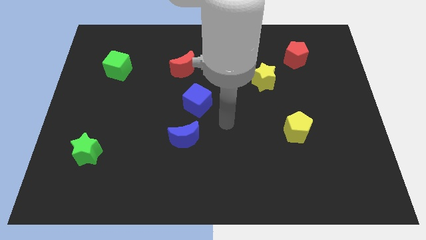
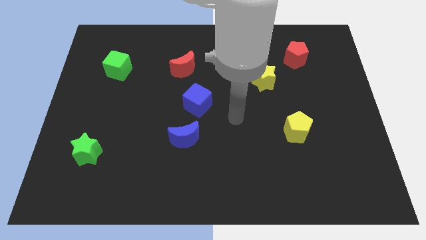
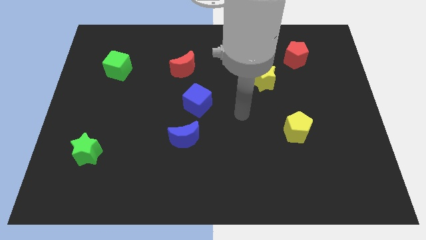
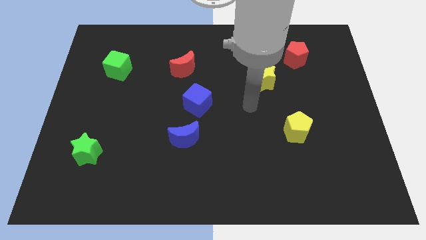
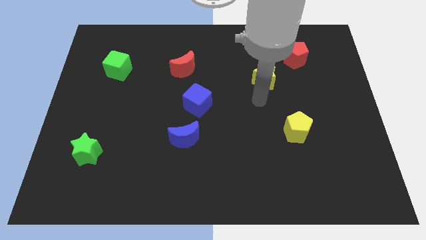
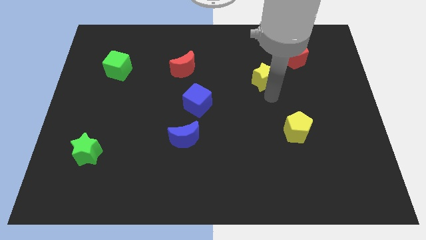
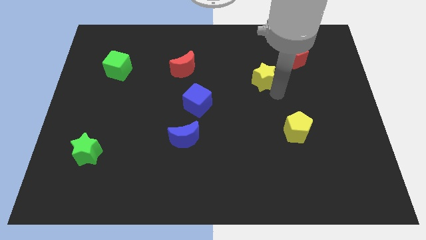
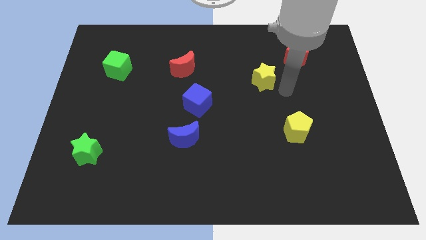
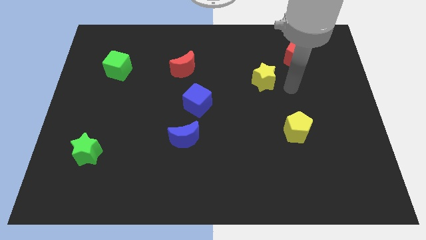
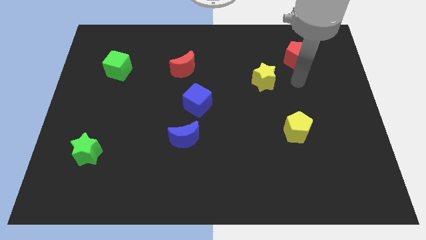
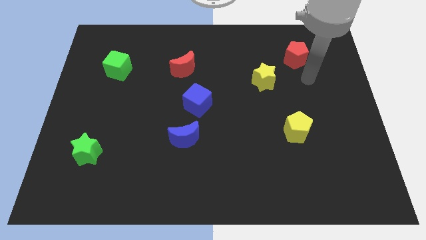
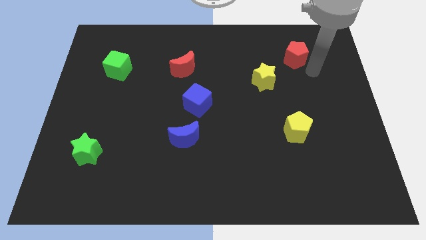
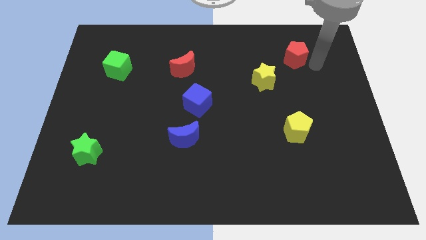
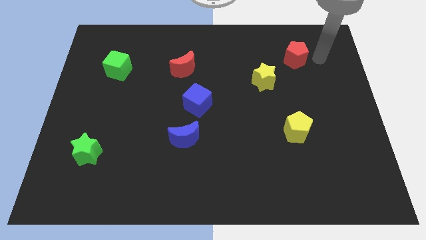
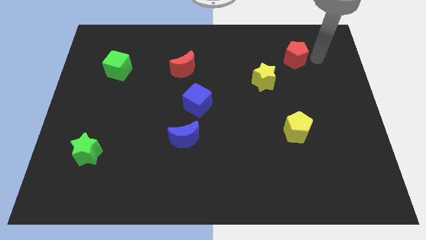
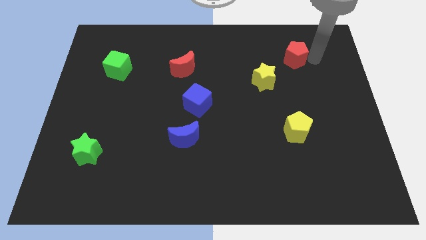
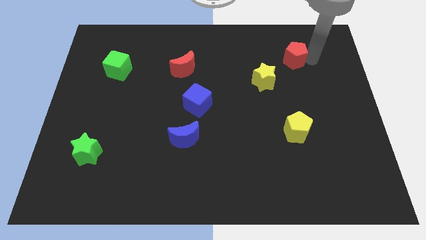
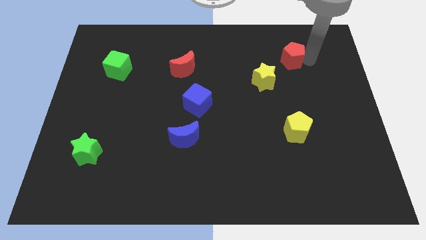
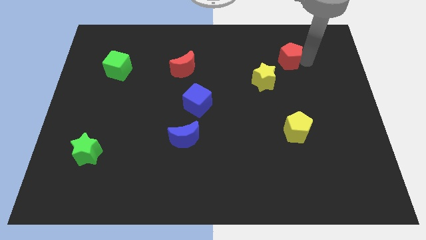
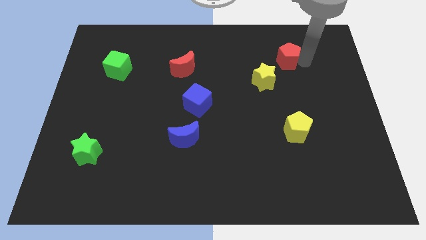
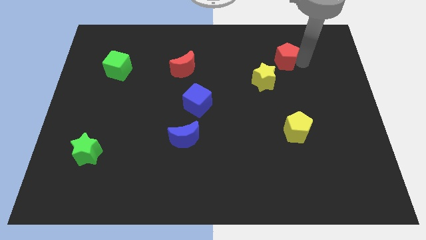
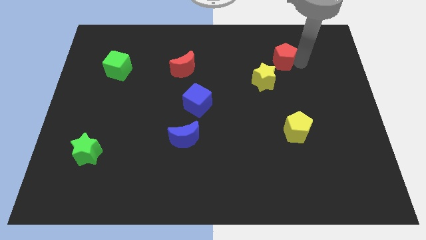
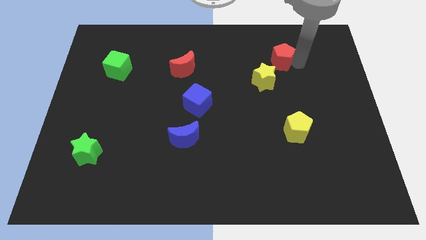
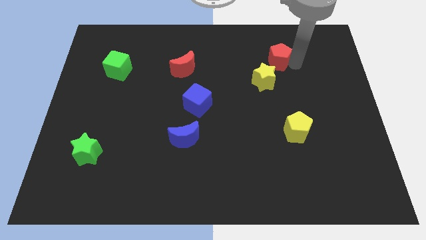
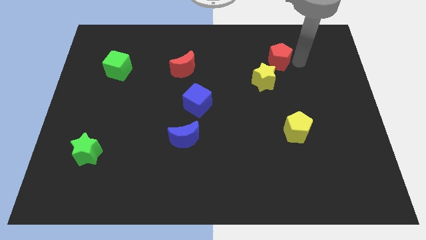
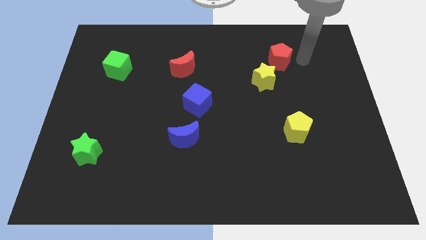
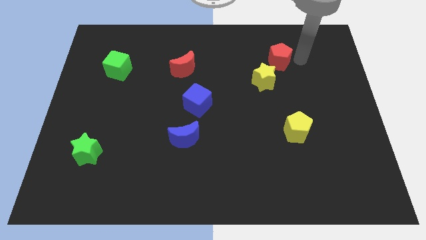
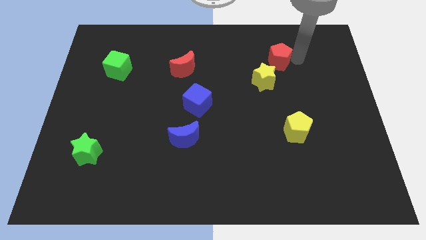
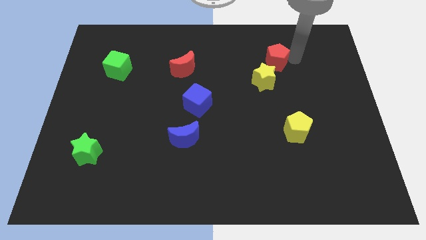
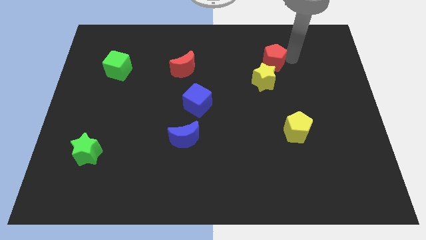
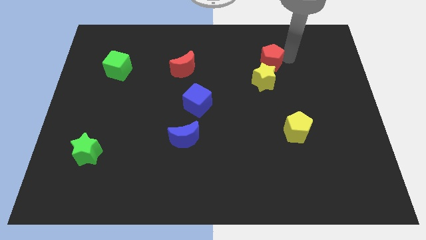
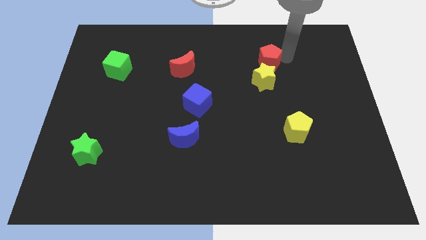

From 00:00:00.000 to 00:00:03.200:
push the red pentagon slightly left

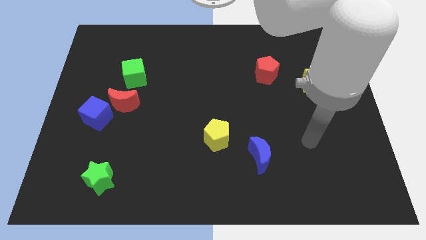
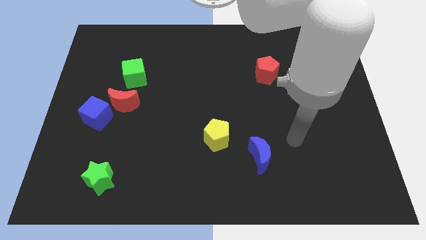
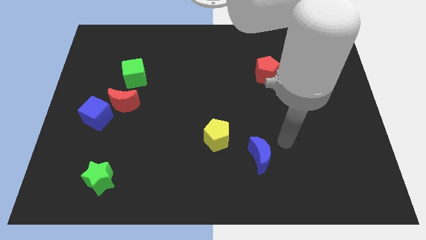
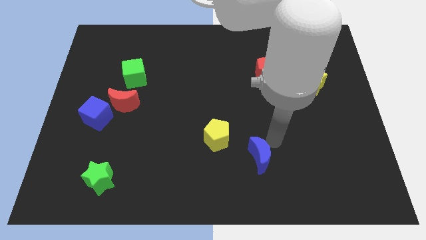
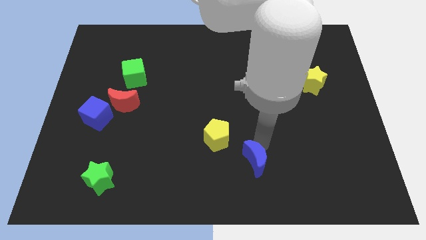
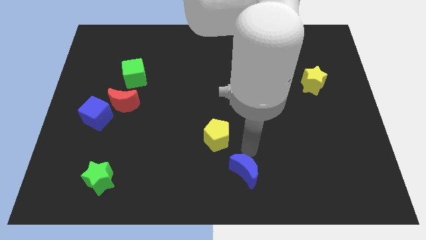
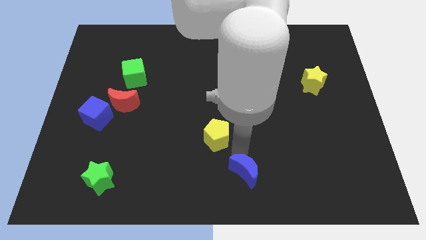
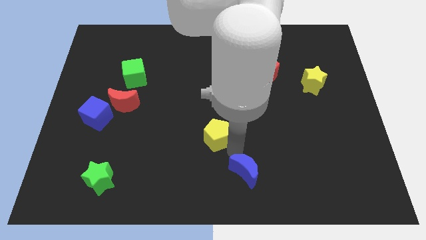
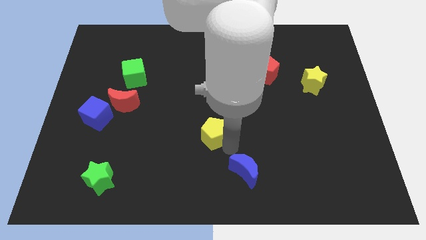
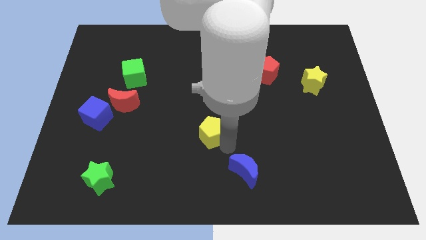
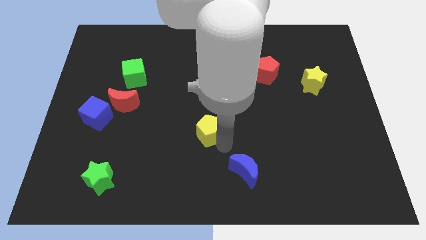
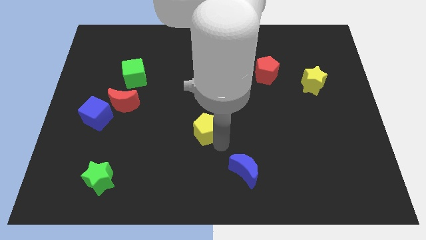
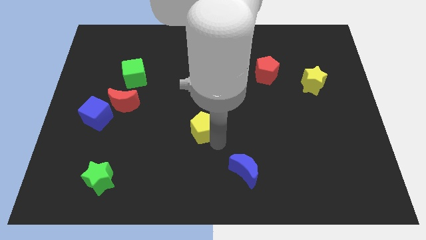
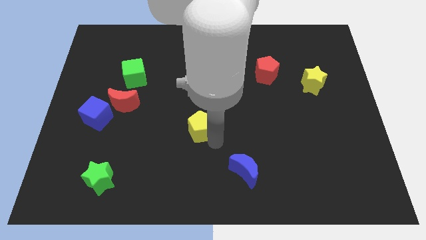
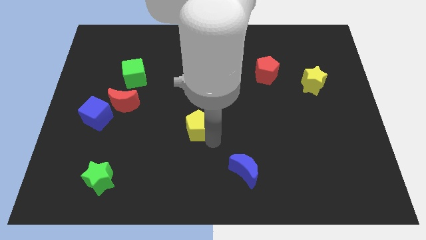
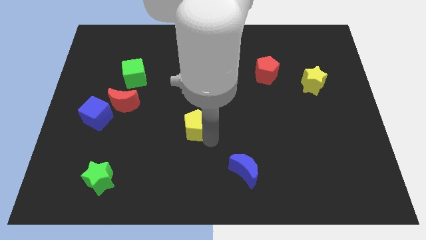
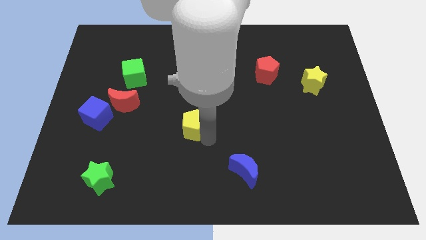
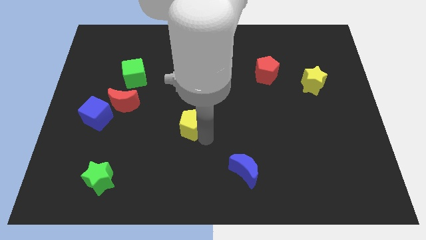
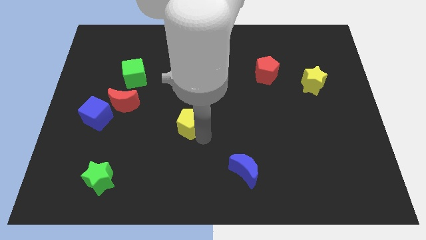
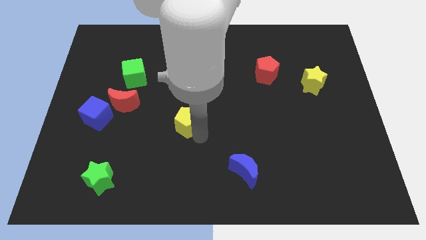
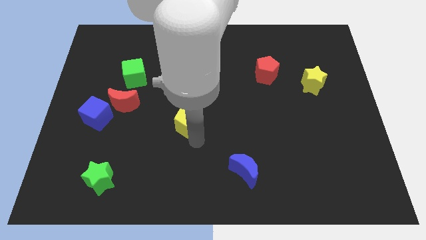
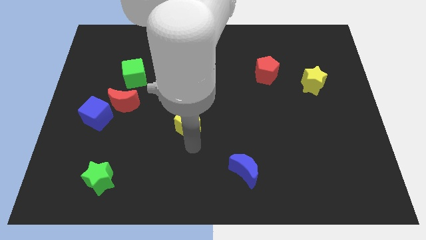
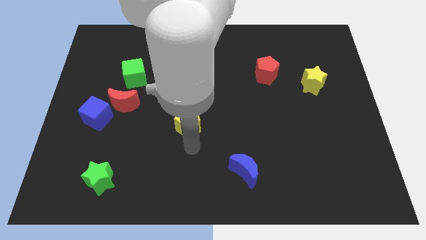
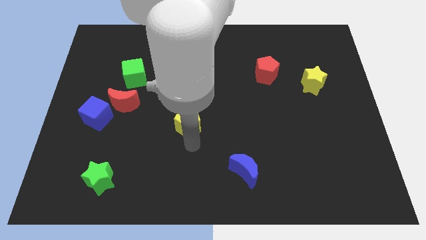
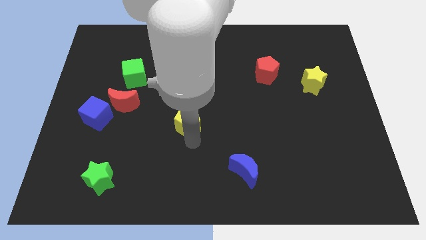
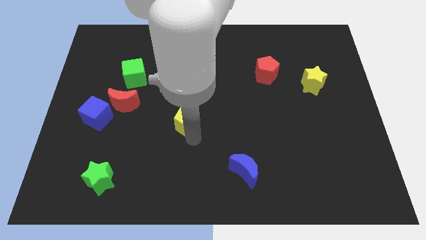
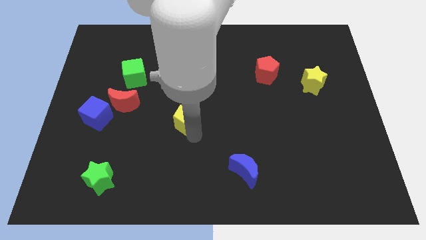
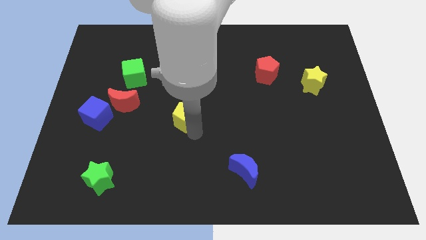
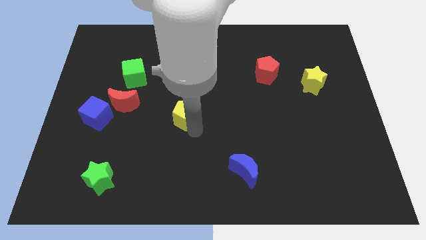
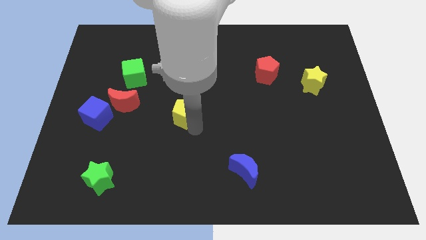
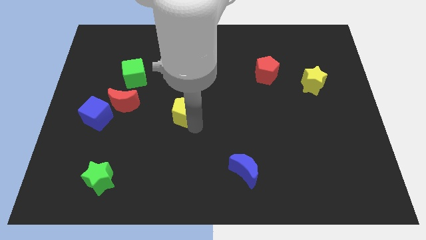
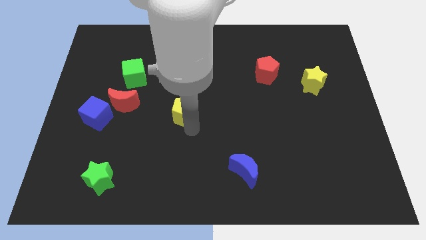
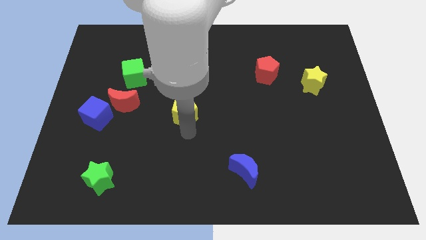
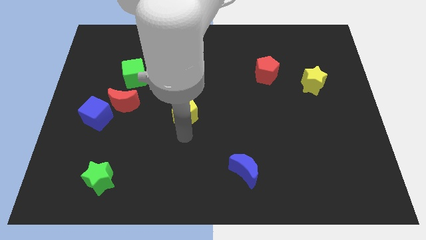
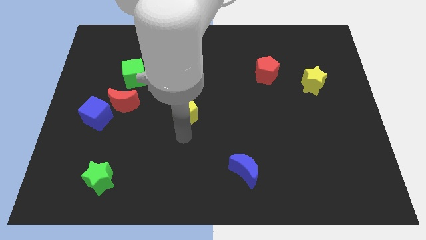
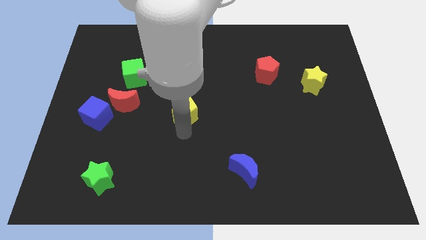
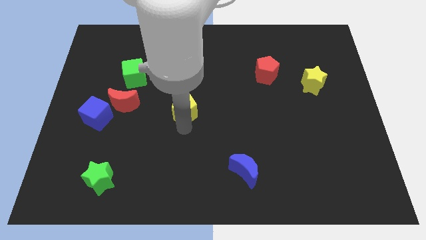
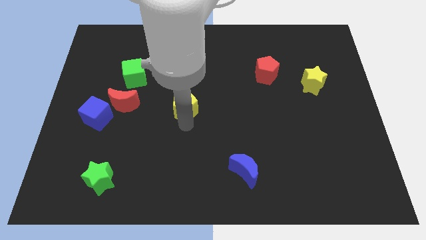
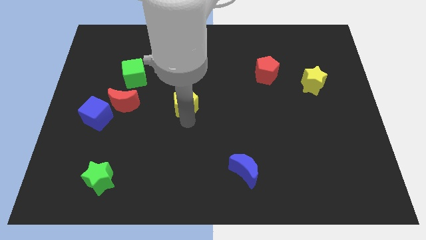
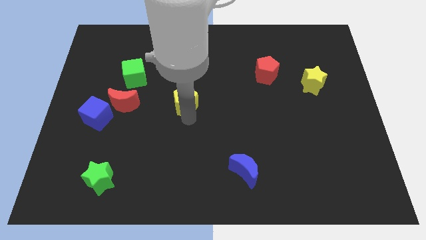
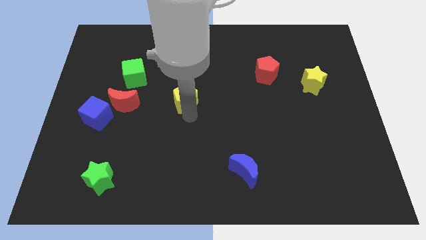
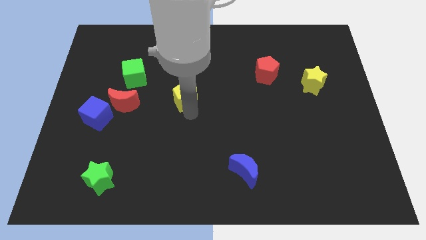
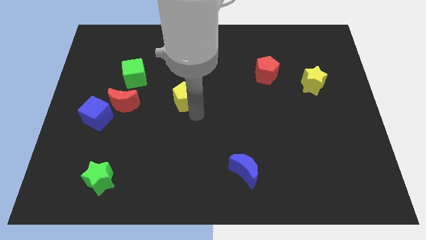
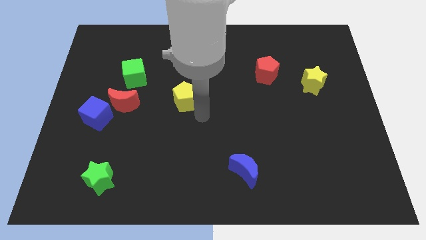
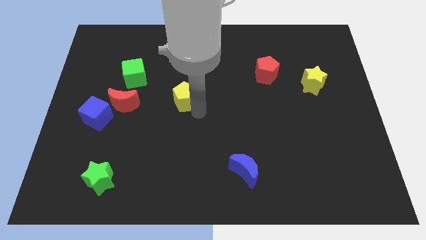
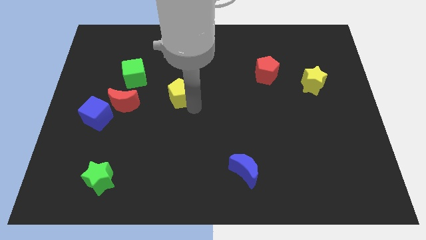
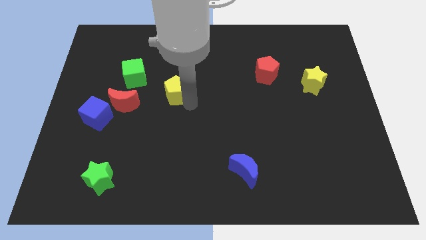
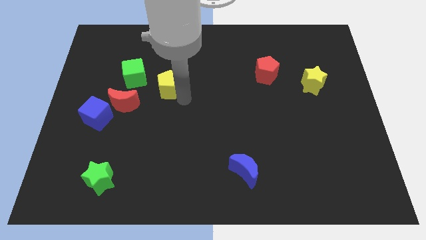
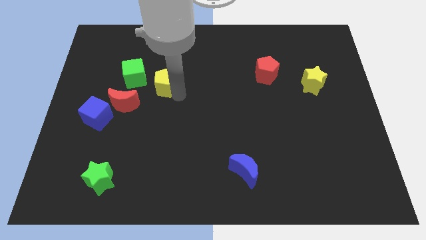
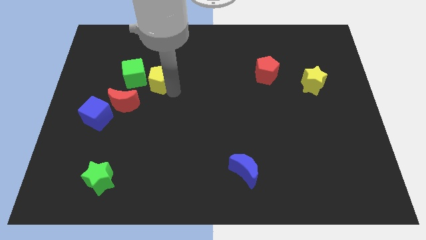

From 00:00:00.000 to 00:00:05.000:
slide the yellow pentagon upwards and left
